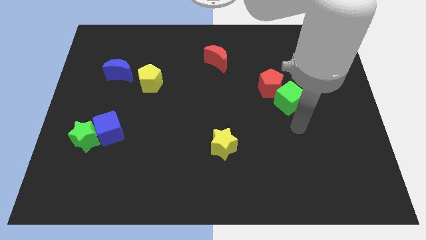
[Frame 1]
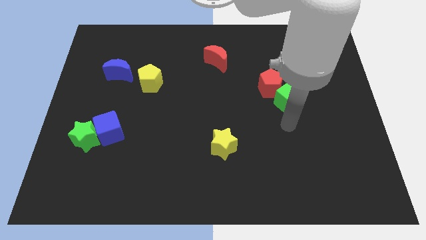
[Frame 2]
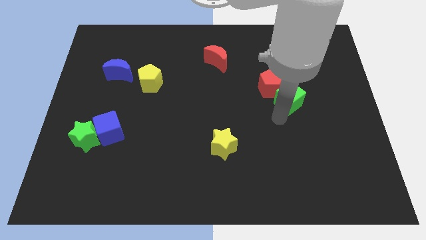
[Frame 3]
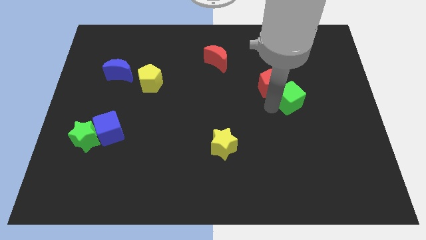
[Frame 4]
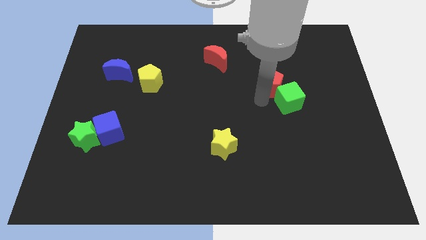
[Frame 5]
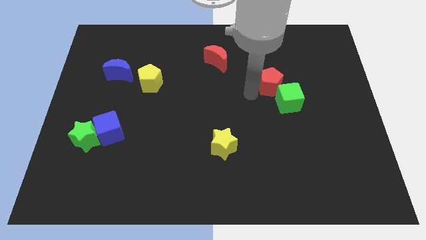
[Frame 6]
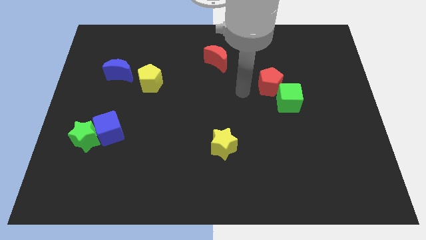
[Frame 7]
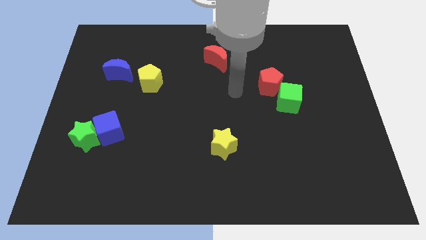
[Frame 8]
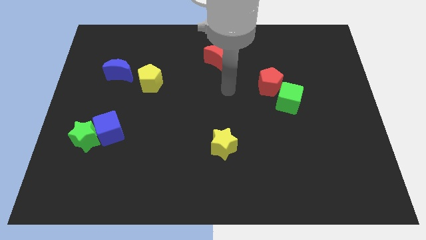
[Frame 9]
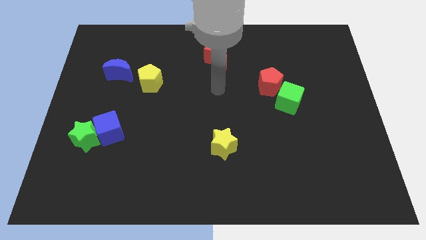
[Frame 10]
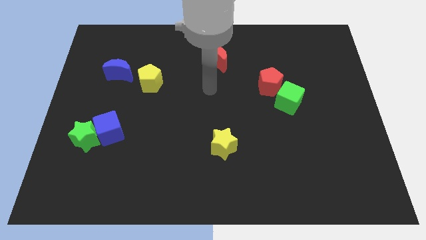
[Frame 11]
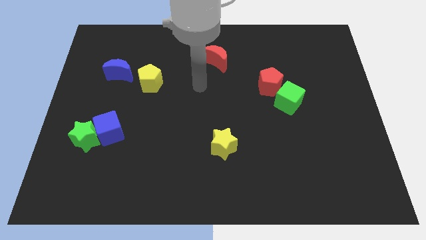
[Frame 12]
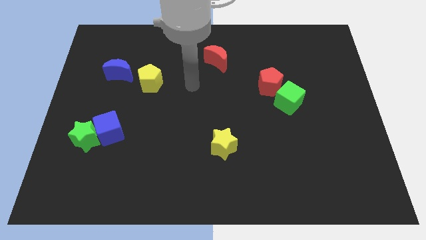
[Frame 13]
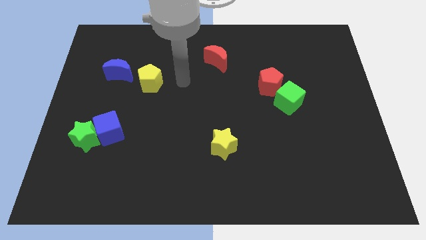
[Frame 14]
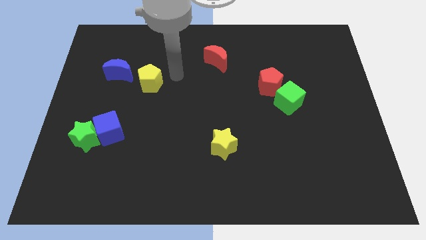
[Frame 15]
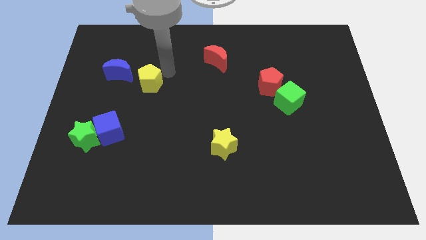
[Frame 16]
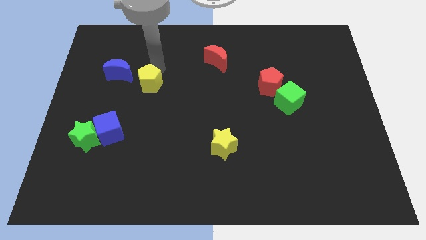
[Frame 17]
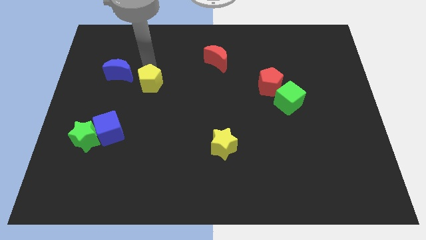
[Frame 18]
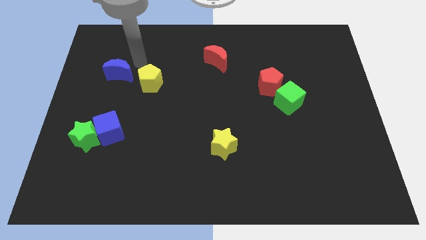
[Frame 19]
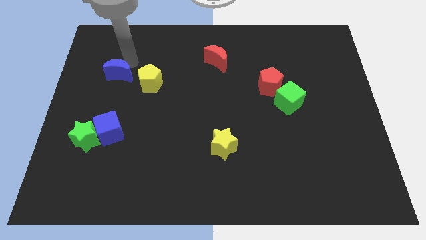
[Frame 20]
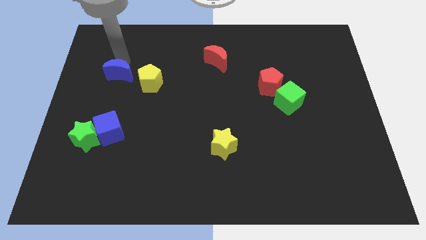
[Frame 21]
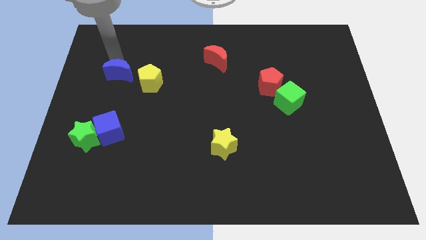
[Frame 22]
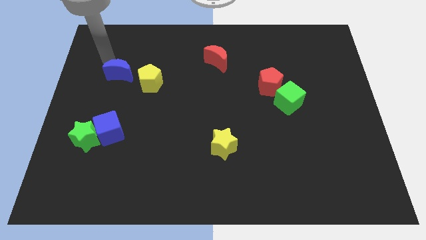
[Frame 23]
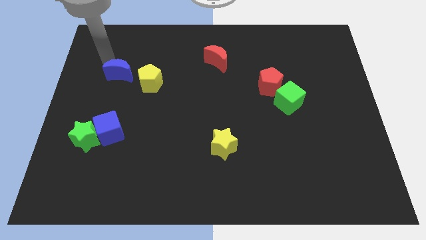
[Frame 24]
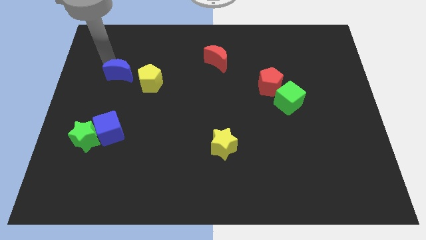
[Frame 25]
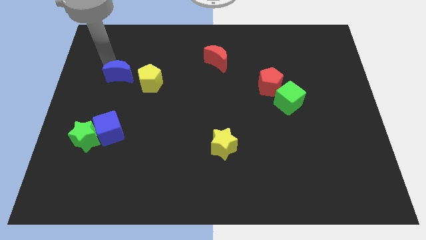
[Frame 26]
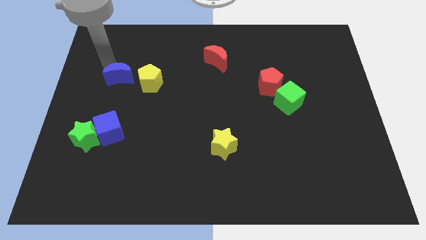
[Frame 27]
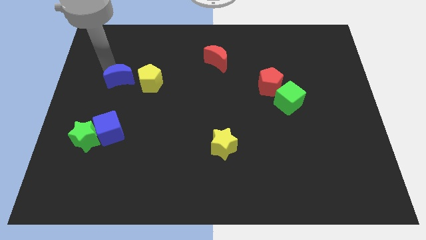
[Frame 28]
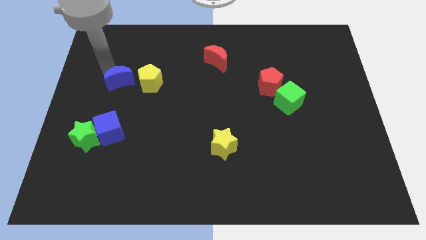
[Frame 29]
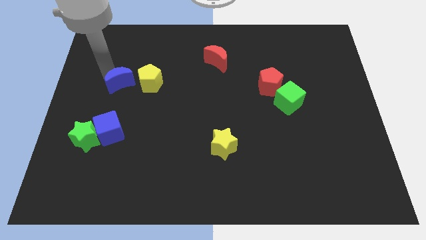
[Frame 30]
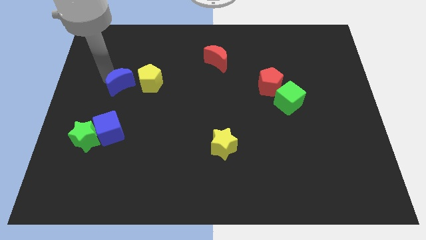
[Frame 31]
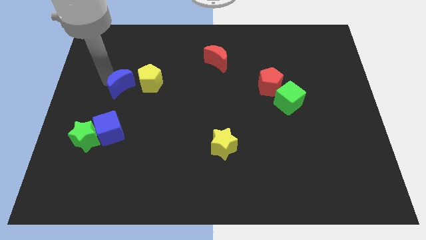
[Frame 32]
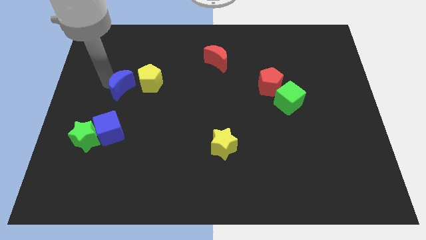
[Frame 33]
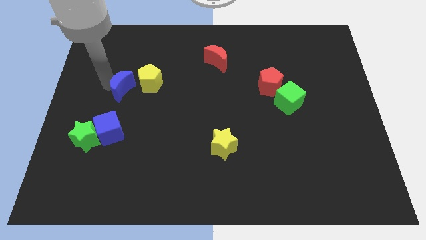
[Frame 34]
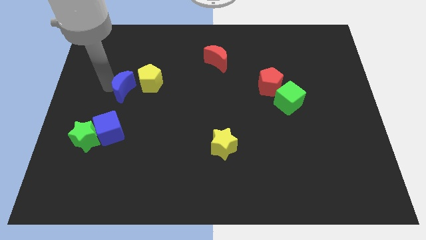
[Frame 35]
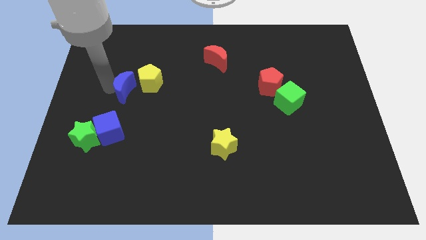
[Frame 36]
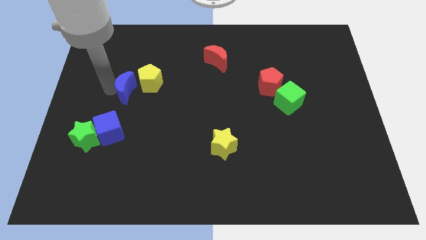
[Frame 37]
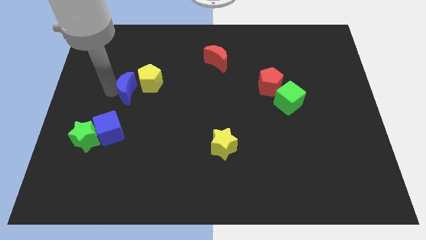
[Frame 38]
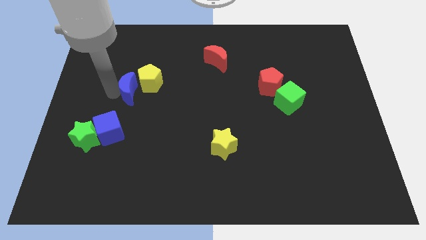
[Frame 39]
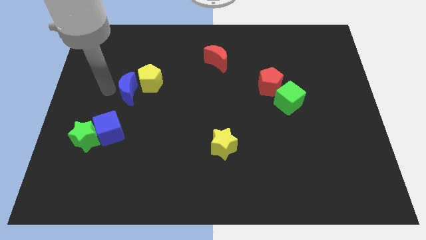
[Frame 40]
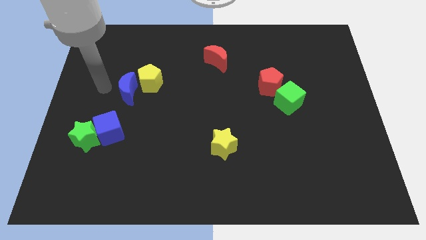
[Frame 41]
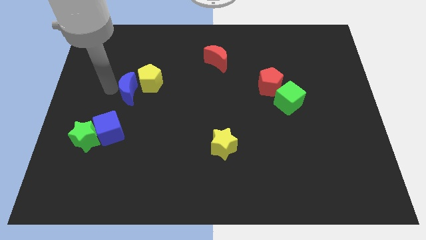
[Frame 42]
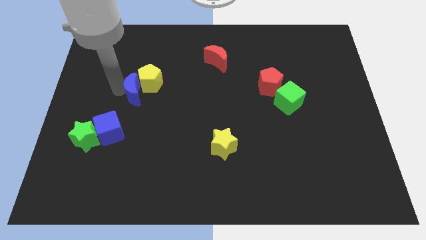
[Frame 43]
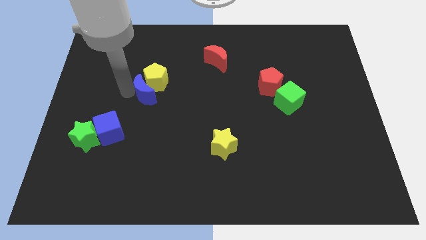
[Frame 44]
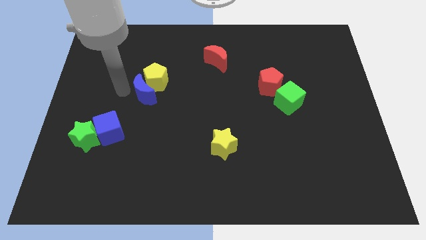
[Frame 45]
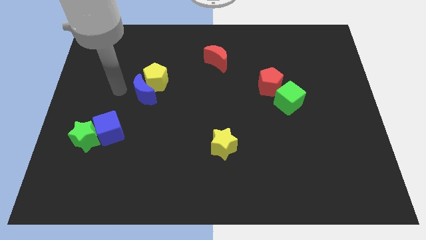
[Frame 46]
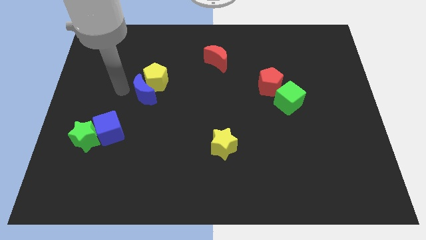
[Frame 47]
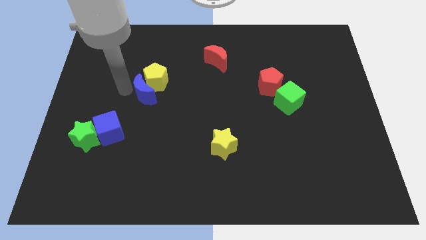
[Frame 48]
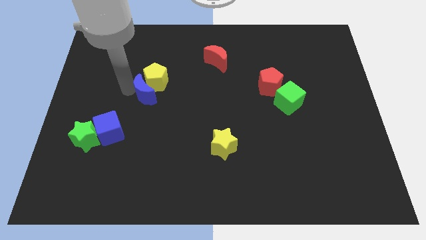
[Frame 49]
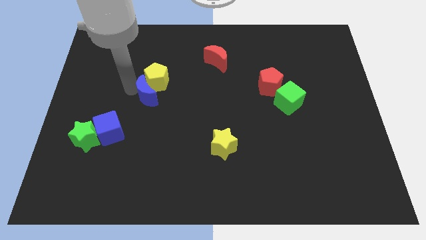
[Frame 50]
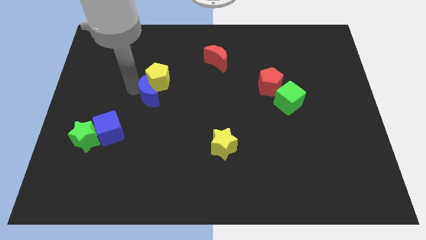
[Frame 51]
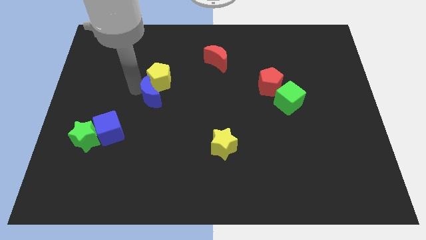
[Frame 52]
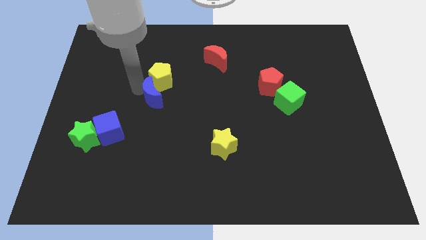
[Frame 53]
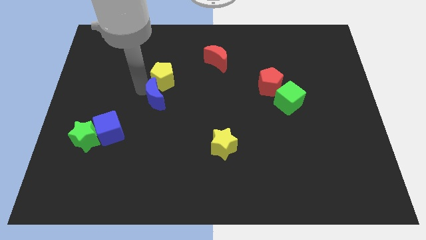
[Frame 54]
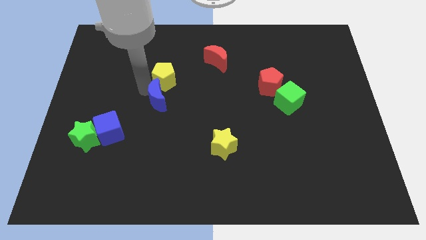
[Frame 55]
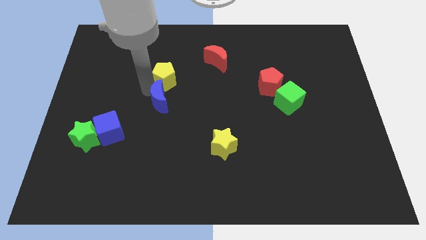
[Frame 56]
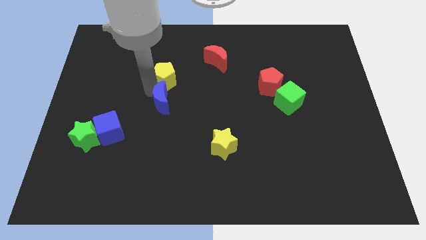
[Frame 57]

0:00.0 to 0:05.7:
slide the blue moon to the middle of the board

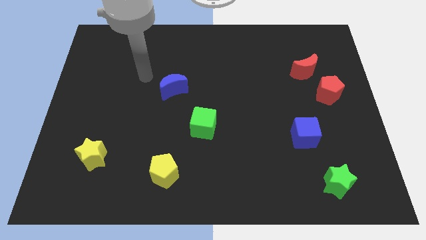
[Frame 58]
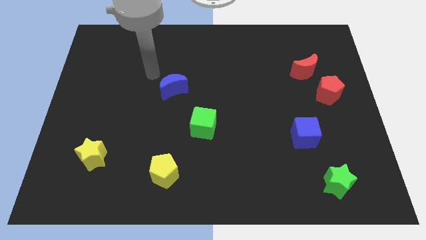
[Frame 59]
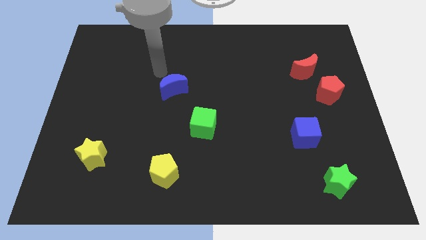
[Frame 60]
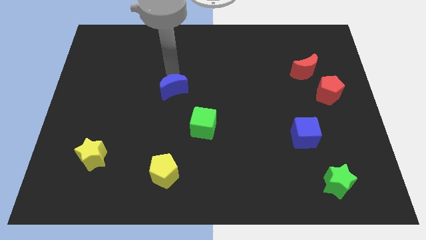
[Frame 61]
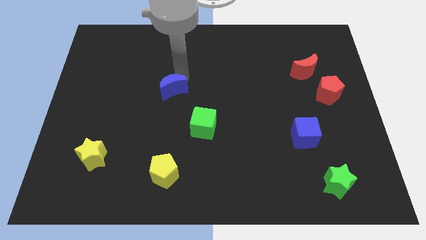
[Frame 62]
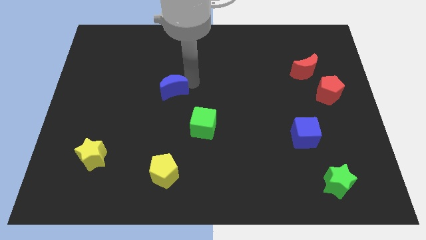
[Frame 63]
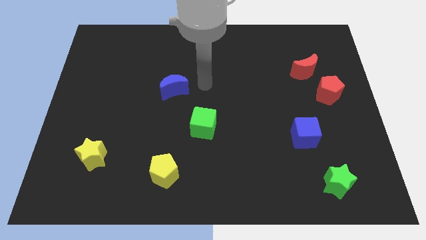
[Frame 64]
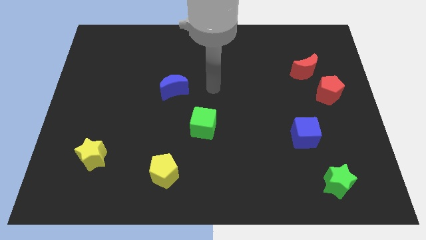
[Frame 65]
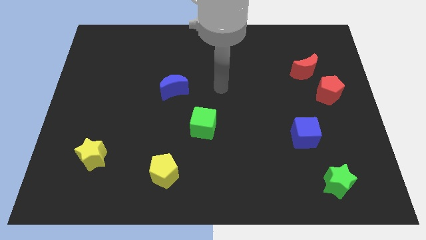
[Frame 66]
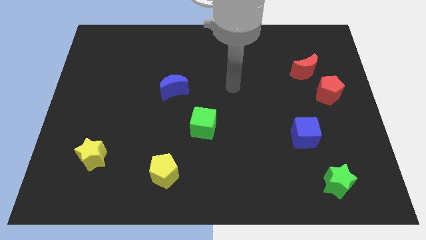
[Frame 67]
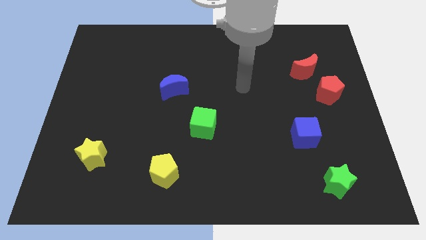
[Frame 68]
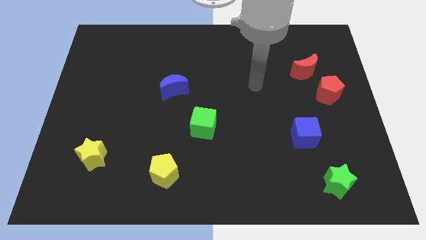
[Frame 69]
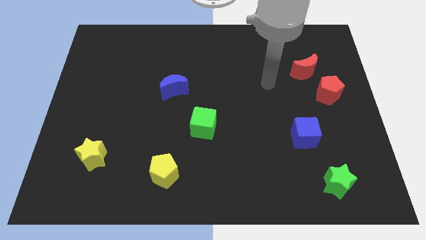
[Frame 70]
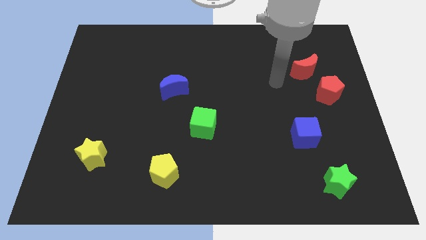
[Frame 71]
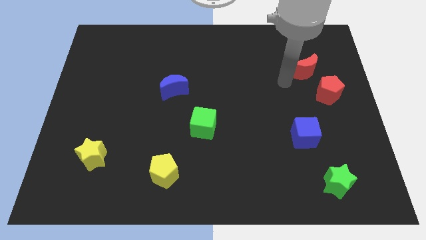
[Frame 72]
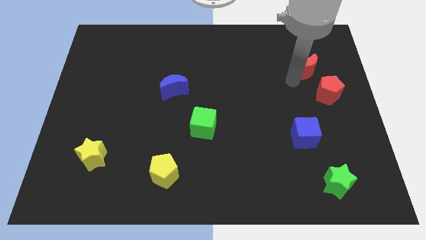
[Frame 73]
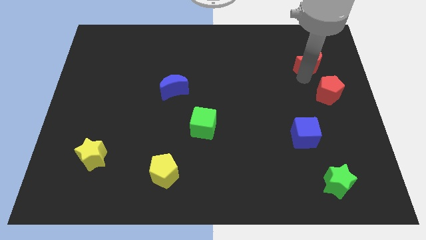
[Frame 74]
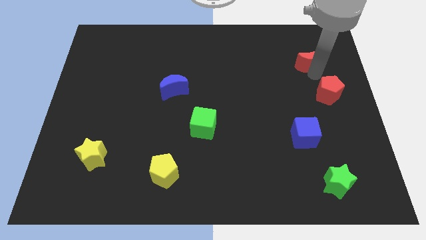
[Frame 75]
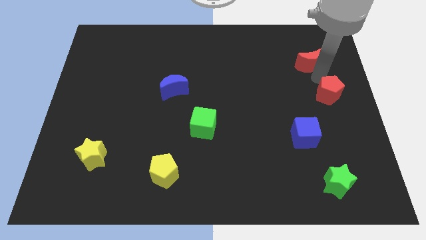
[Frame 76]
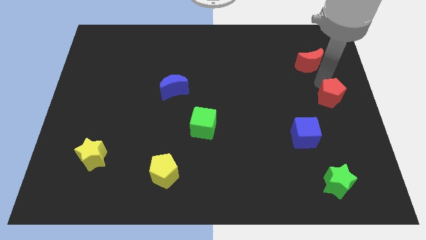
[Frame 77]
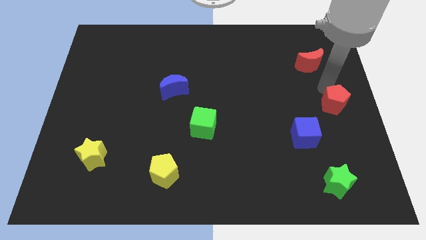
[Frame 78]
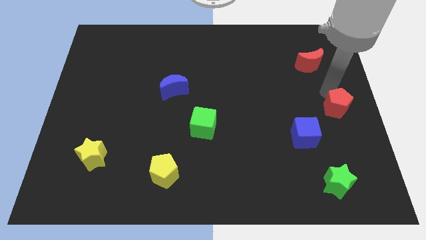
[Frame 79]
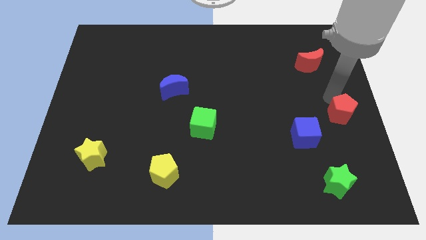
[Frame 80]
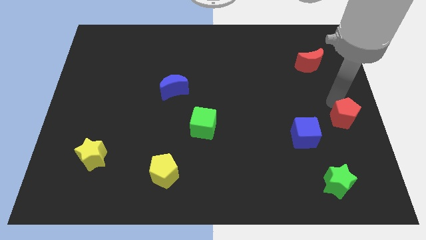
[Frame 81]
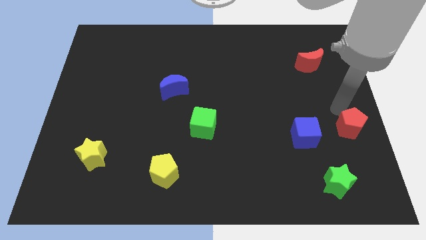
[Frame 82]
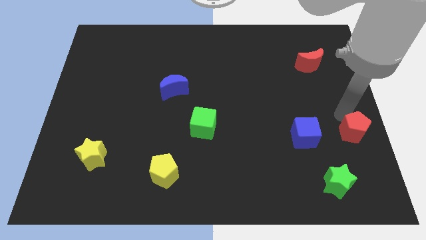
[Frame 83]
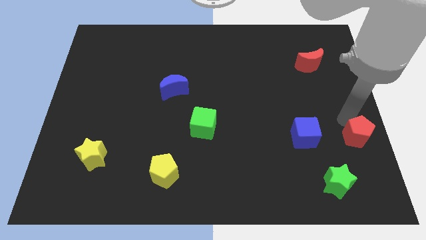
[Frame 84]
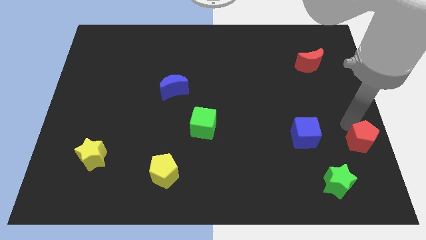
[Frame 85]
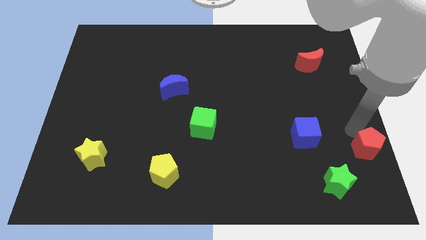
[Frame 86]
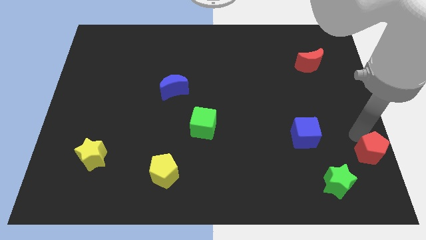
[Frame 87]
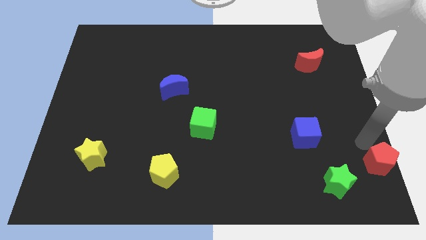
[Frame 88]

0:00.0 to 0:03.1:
push the red pentagon to the bottom right
